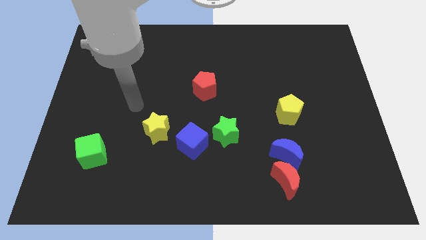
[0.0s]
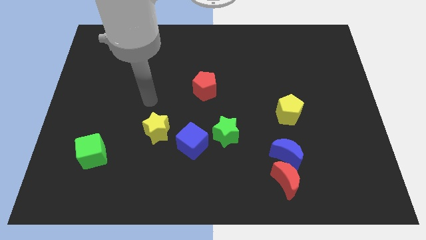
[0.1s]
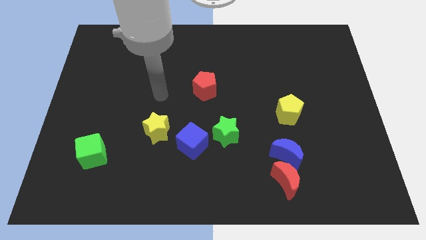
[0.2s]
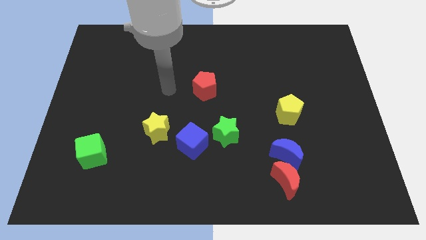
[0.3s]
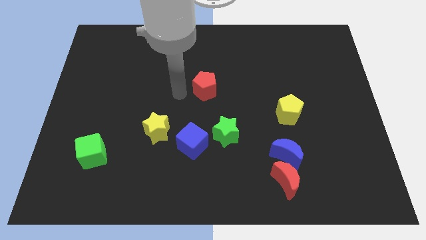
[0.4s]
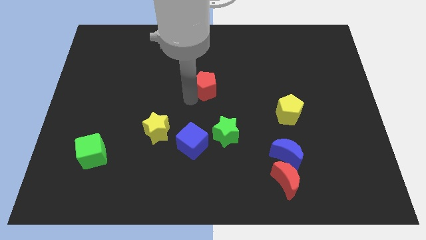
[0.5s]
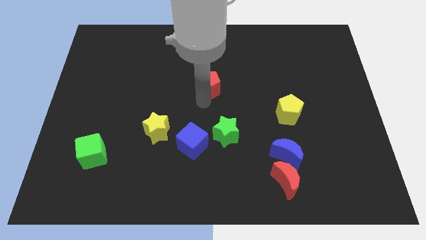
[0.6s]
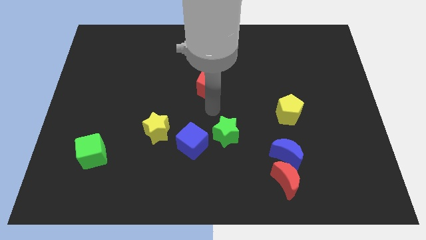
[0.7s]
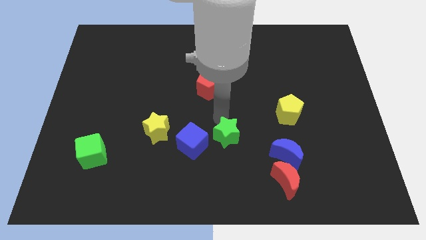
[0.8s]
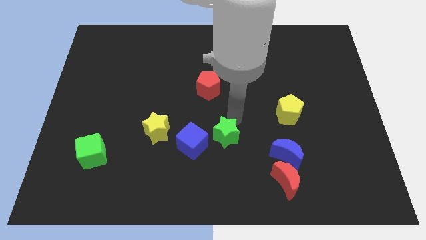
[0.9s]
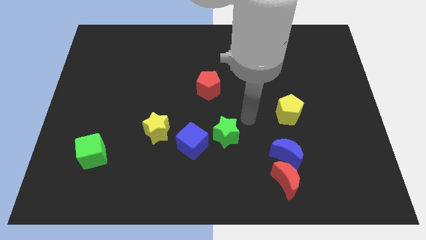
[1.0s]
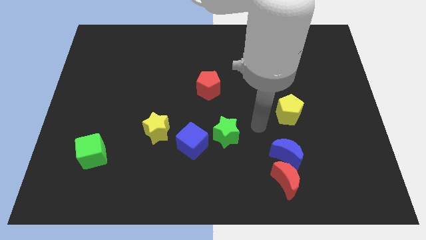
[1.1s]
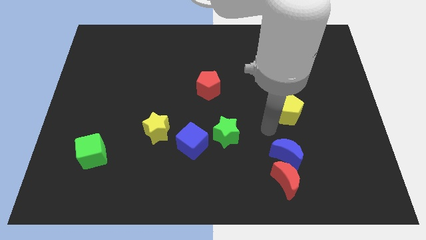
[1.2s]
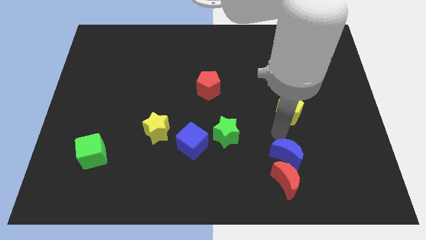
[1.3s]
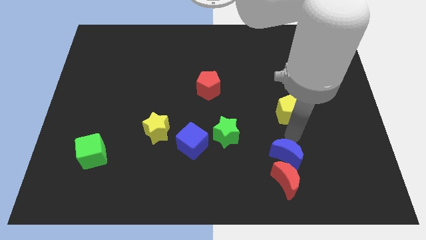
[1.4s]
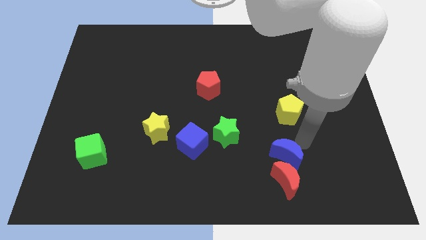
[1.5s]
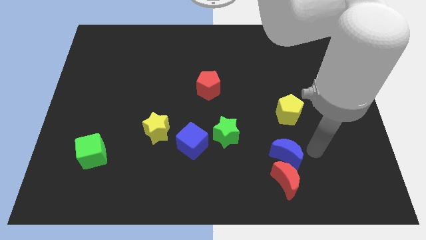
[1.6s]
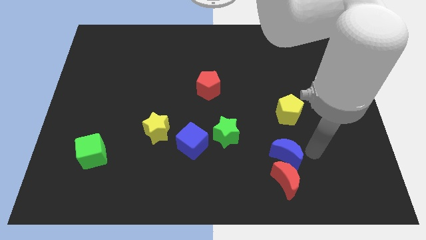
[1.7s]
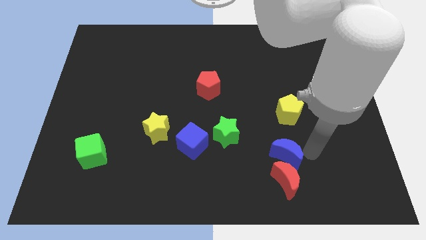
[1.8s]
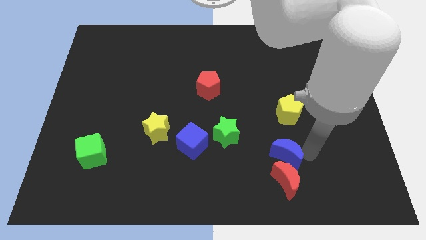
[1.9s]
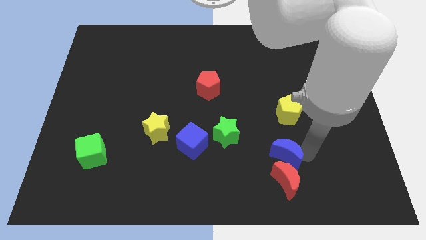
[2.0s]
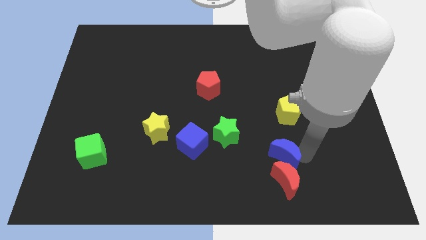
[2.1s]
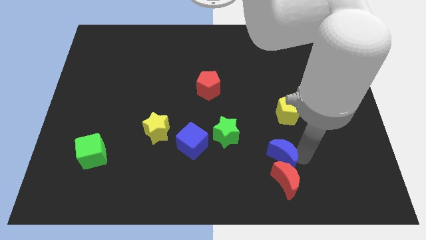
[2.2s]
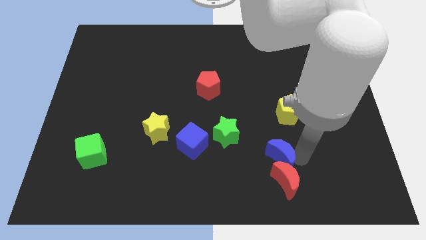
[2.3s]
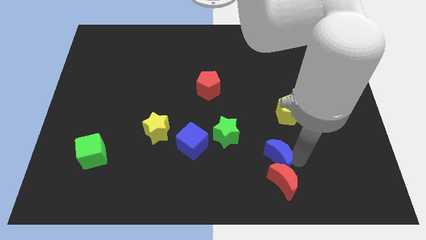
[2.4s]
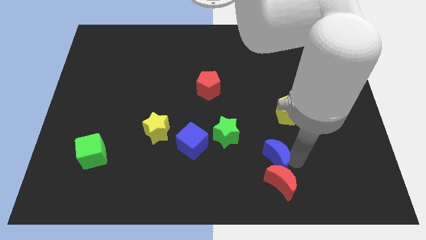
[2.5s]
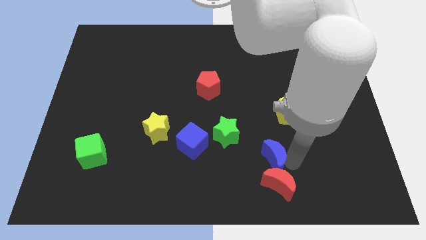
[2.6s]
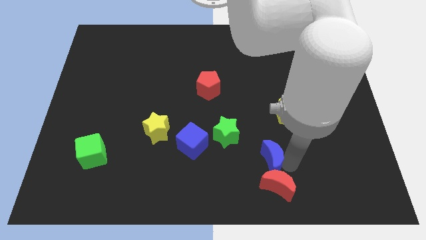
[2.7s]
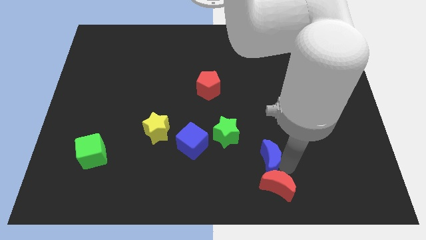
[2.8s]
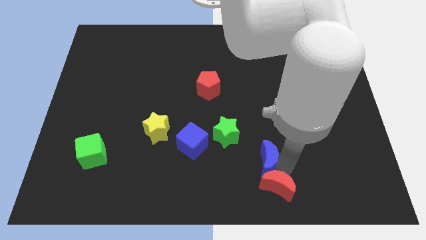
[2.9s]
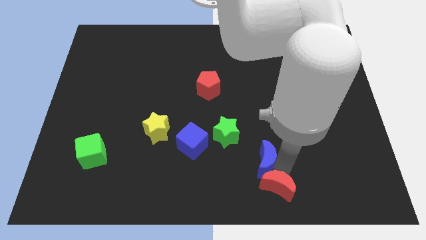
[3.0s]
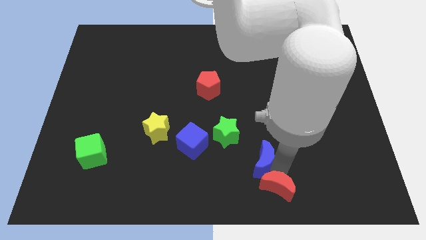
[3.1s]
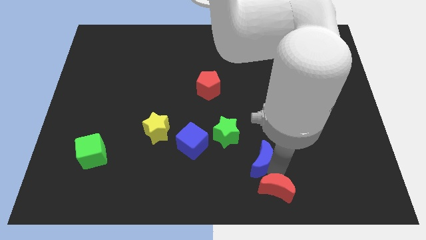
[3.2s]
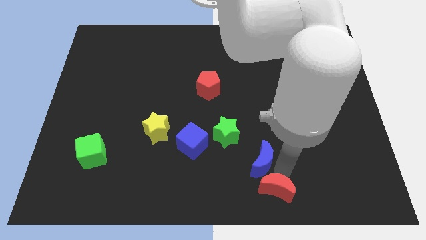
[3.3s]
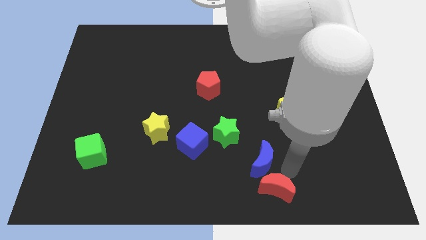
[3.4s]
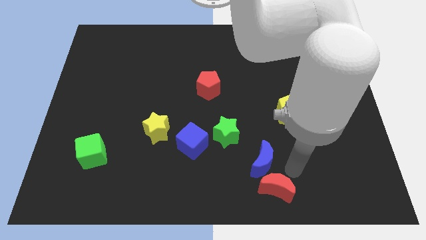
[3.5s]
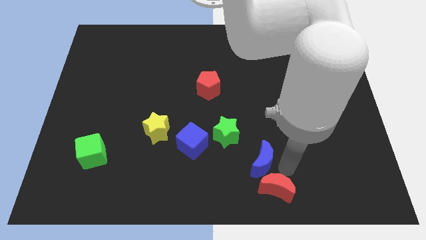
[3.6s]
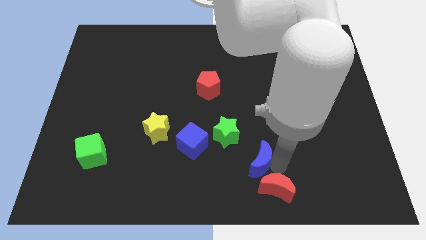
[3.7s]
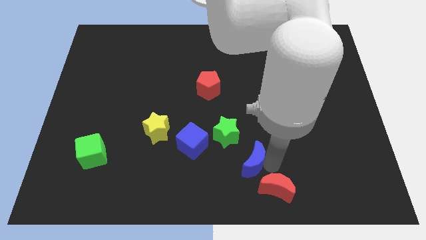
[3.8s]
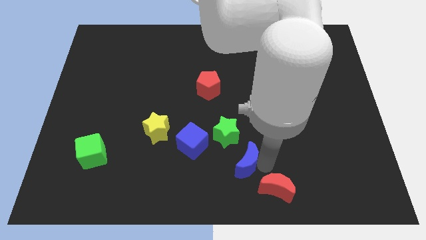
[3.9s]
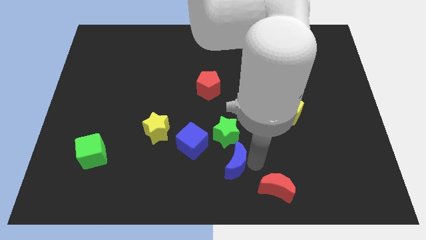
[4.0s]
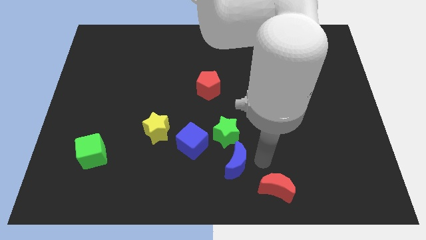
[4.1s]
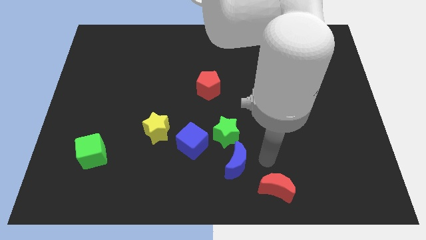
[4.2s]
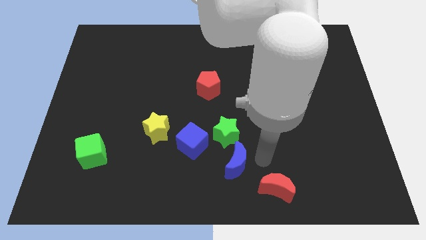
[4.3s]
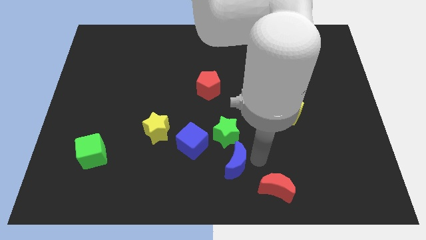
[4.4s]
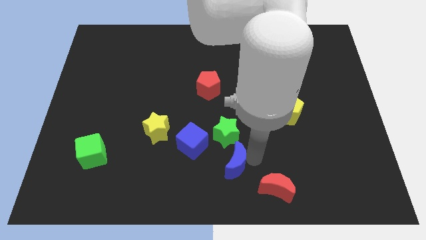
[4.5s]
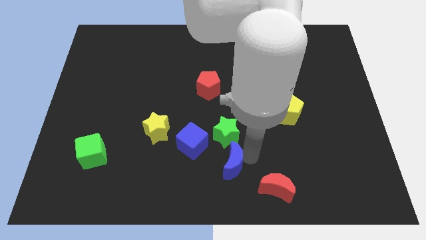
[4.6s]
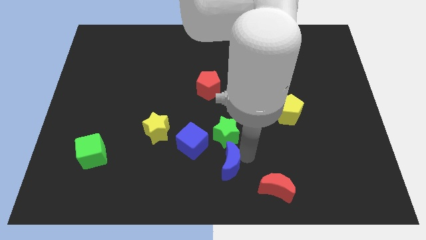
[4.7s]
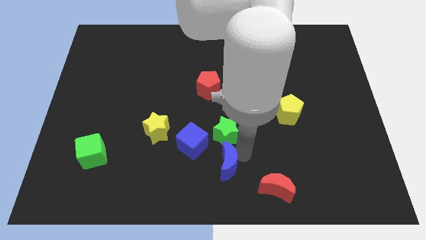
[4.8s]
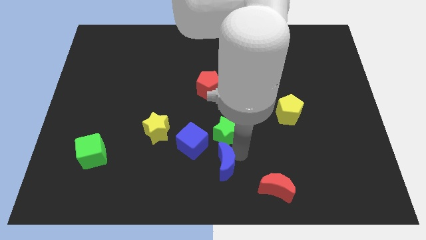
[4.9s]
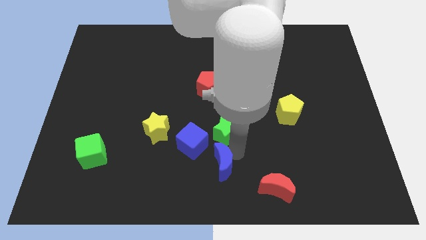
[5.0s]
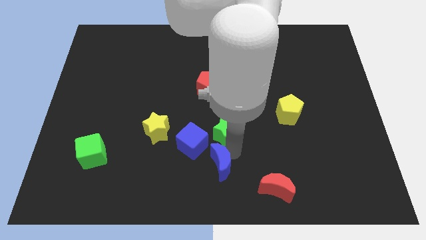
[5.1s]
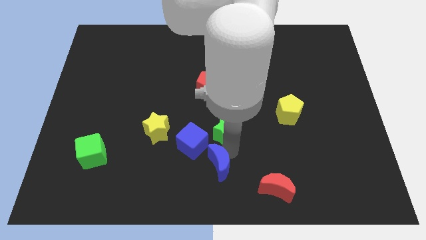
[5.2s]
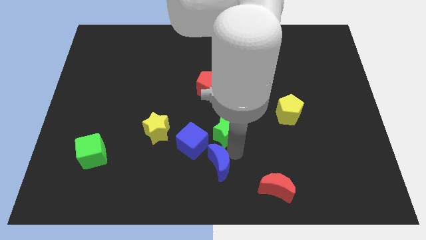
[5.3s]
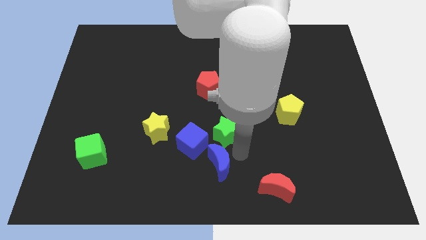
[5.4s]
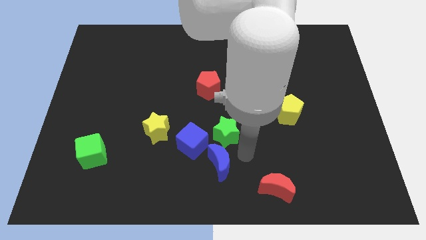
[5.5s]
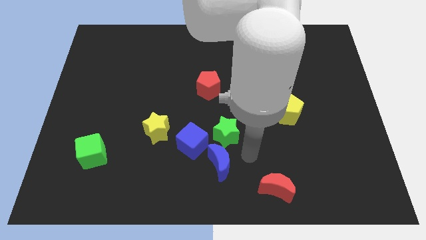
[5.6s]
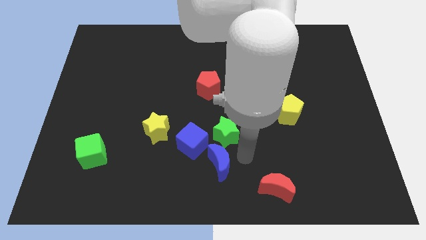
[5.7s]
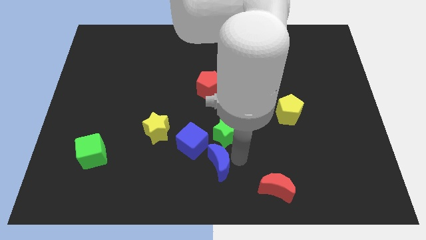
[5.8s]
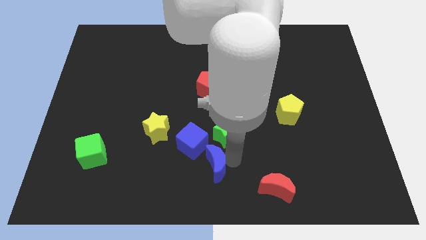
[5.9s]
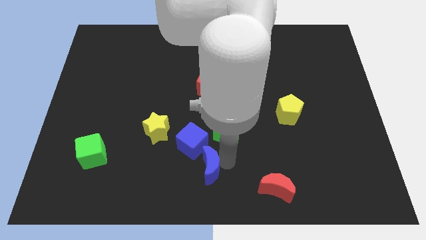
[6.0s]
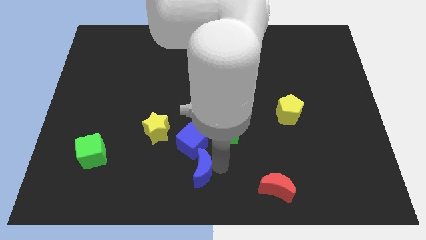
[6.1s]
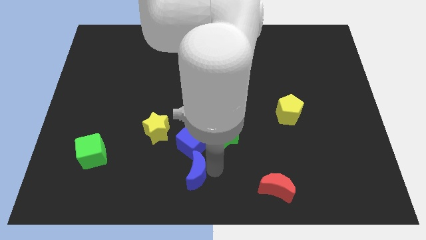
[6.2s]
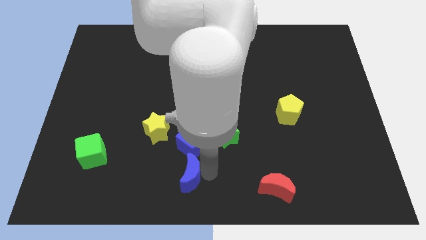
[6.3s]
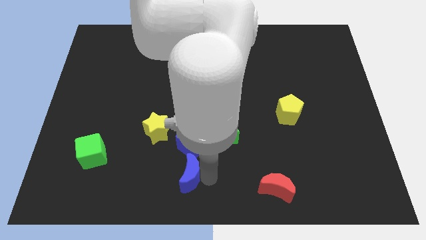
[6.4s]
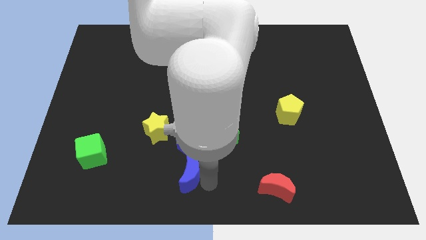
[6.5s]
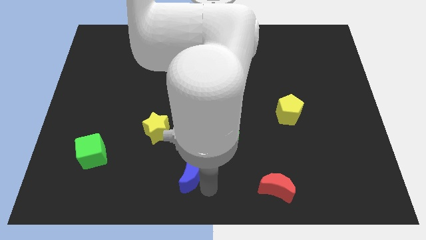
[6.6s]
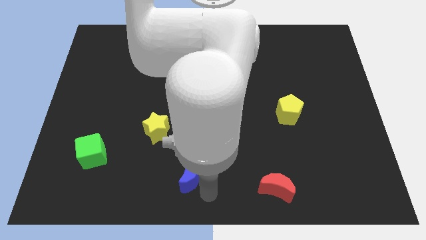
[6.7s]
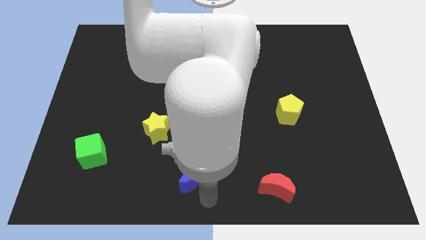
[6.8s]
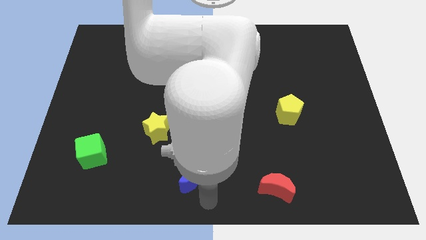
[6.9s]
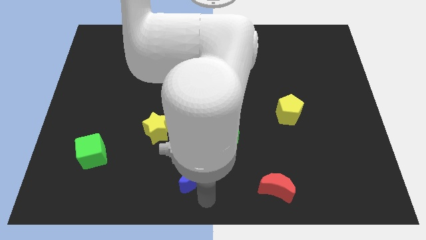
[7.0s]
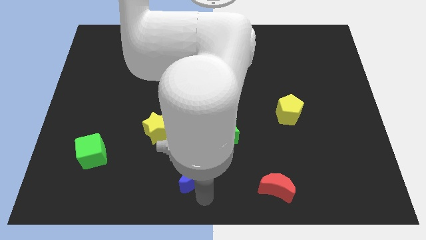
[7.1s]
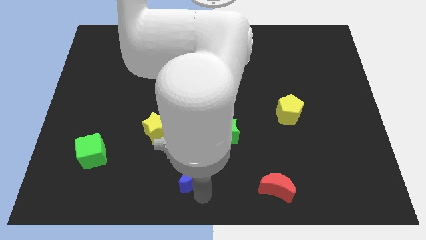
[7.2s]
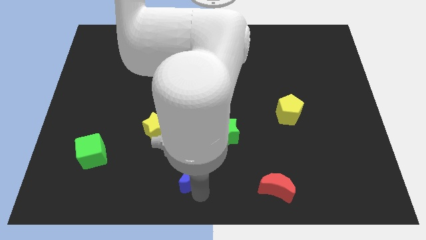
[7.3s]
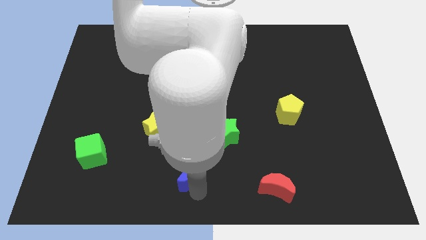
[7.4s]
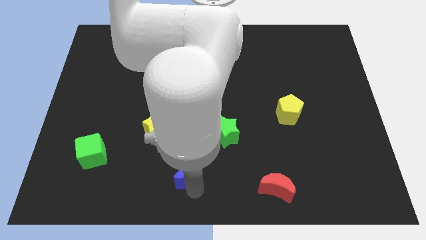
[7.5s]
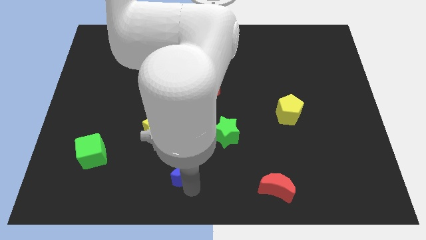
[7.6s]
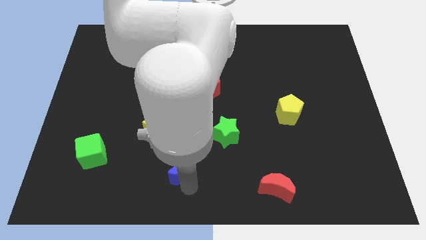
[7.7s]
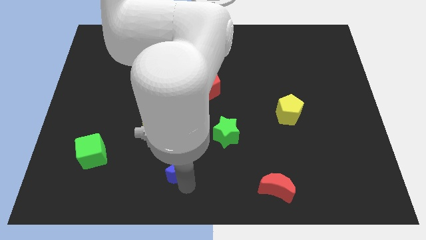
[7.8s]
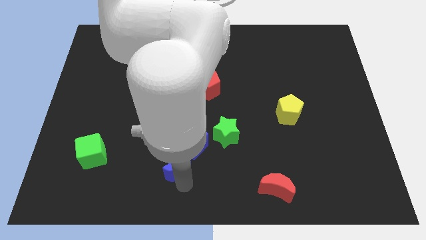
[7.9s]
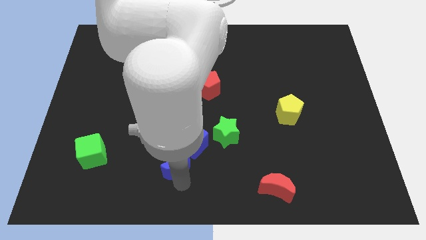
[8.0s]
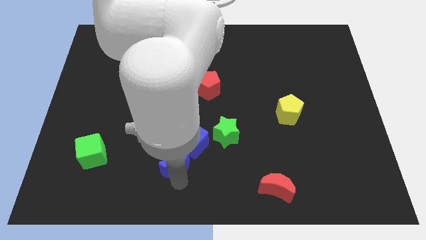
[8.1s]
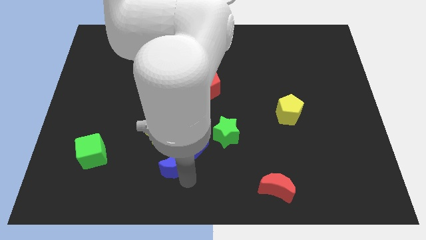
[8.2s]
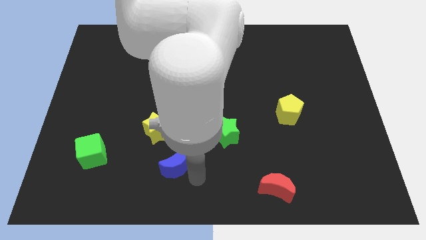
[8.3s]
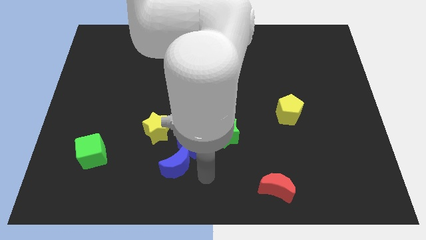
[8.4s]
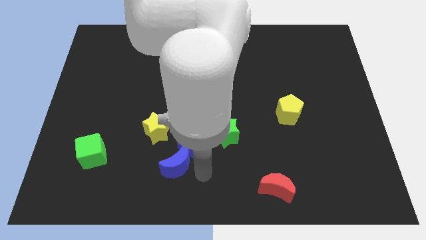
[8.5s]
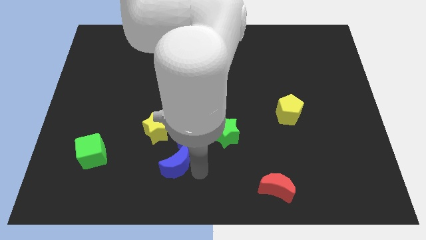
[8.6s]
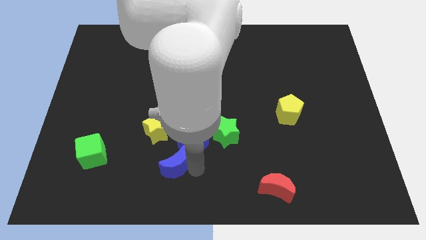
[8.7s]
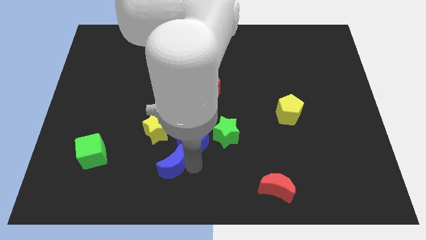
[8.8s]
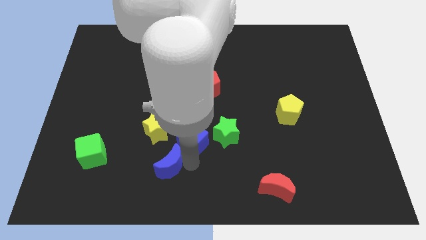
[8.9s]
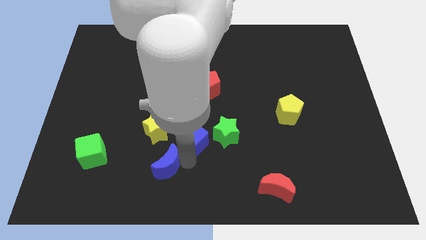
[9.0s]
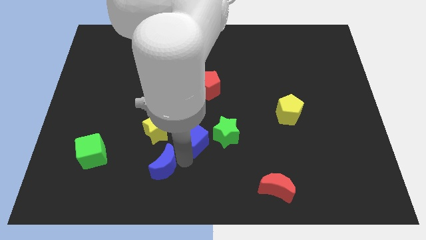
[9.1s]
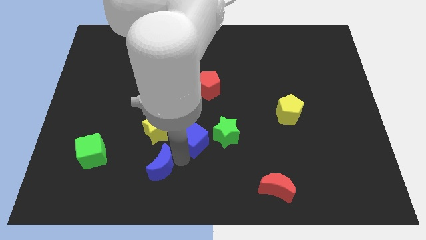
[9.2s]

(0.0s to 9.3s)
put the blue moon to the right side of the green cube
